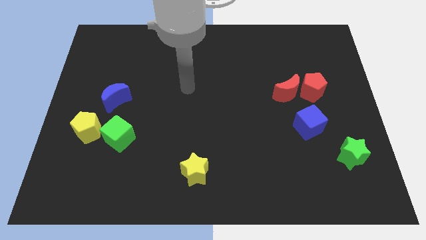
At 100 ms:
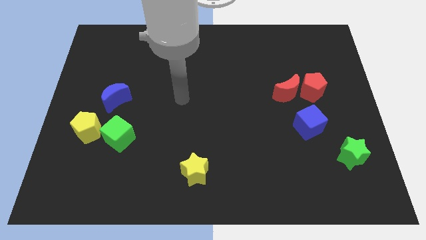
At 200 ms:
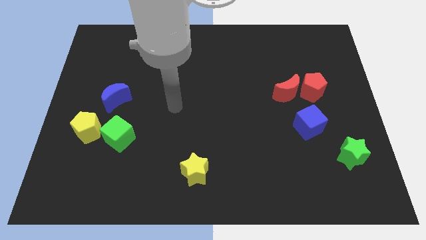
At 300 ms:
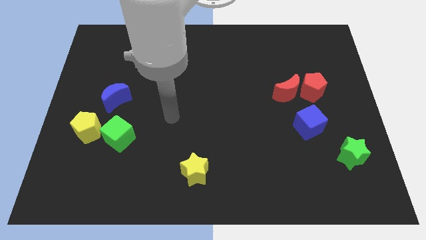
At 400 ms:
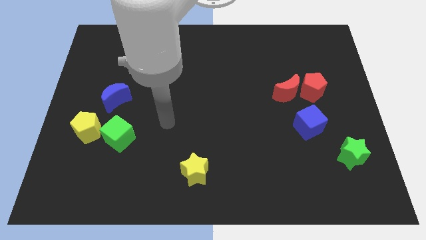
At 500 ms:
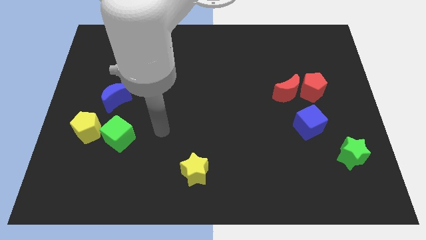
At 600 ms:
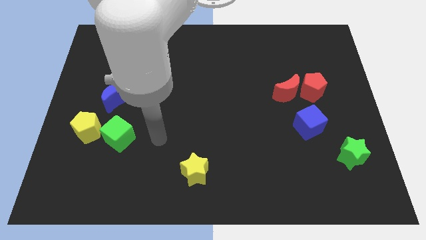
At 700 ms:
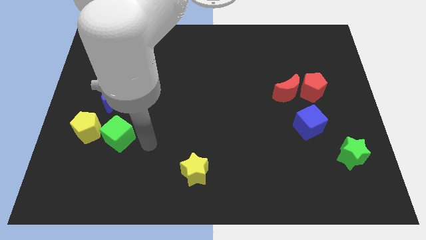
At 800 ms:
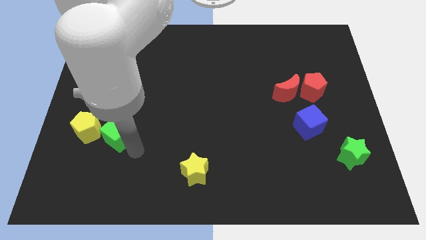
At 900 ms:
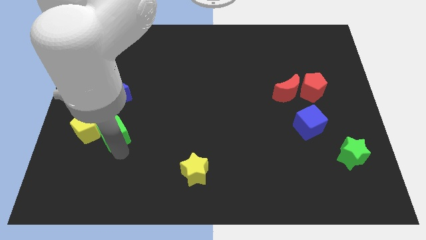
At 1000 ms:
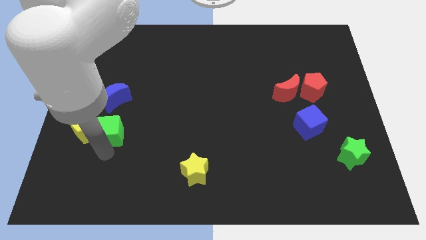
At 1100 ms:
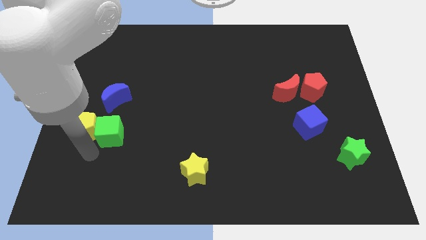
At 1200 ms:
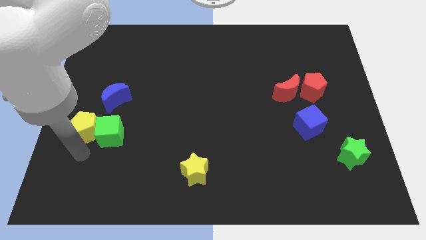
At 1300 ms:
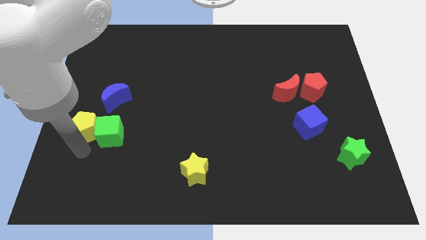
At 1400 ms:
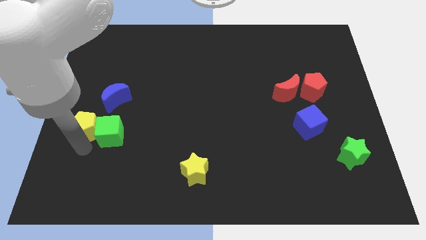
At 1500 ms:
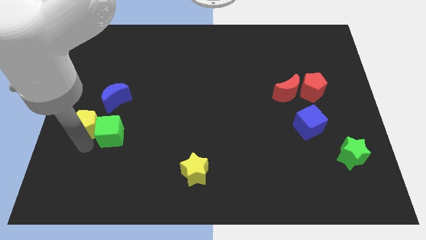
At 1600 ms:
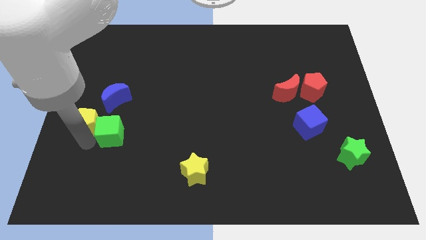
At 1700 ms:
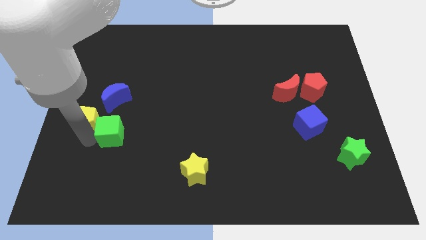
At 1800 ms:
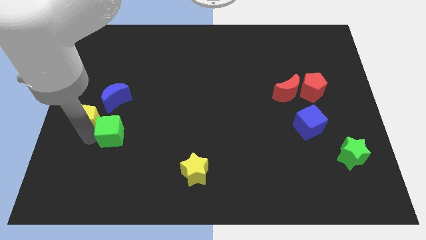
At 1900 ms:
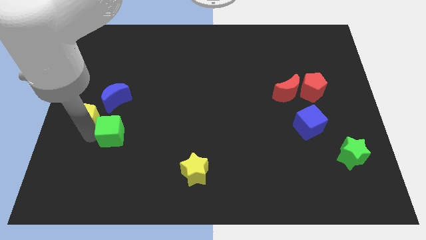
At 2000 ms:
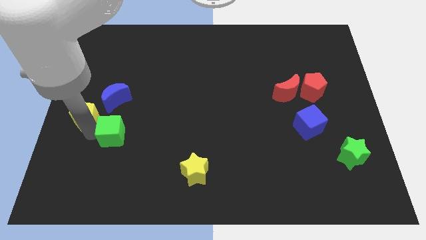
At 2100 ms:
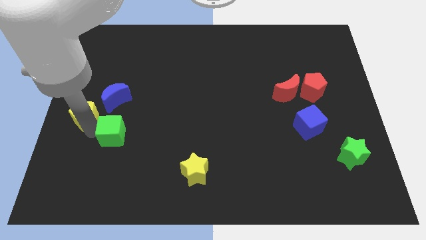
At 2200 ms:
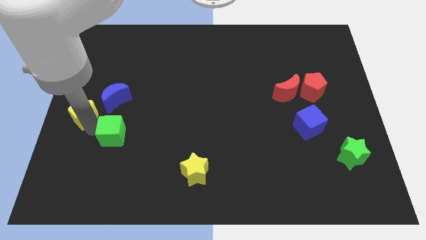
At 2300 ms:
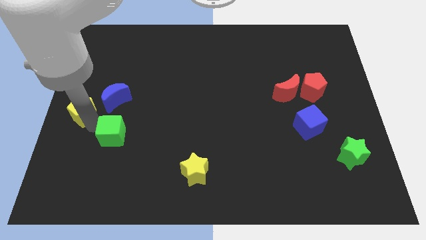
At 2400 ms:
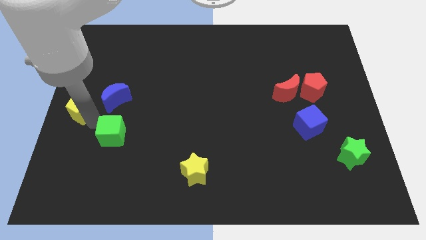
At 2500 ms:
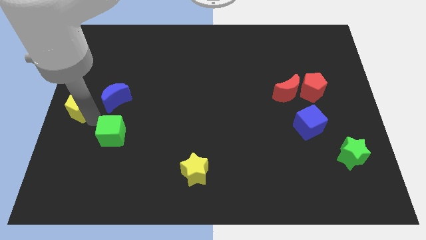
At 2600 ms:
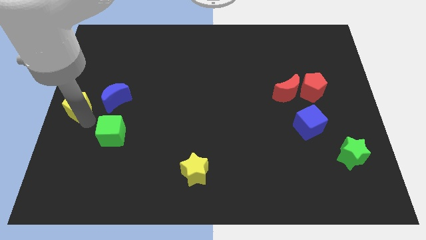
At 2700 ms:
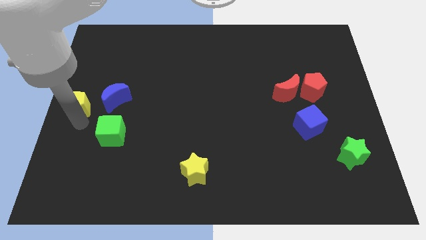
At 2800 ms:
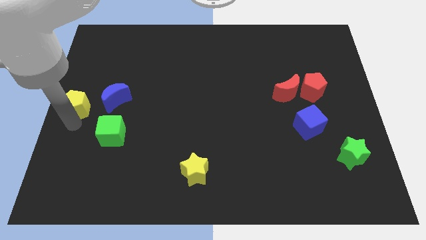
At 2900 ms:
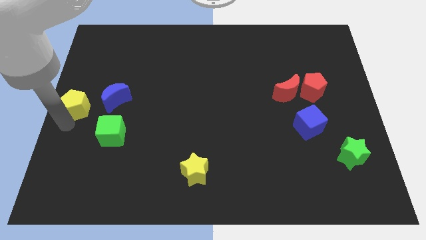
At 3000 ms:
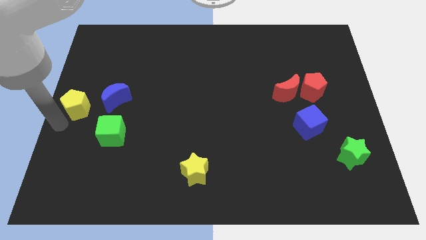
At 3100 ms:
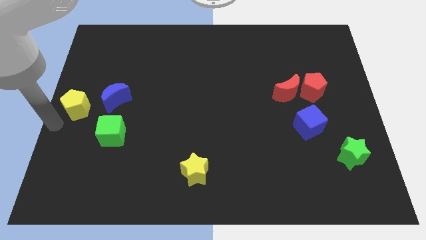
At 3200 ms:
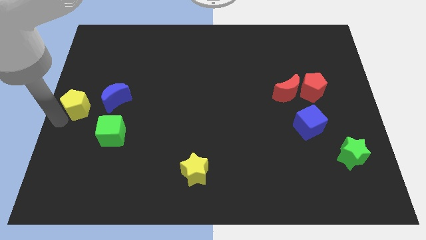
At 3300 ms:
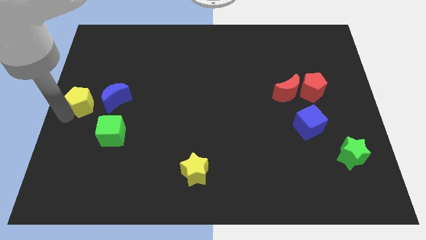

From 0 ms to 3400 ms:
push the yellow pentagon slightly up

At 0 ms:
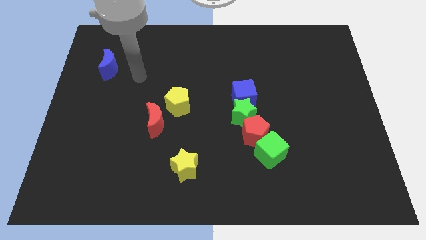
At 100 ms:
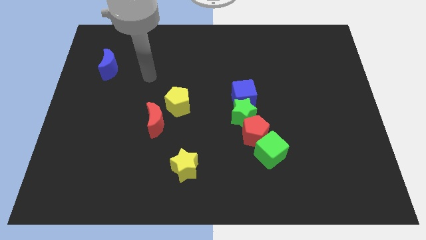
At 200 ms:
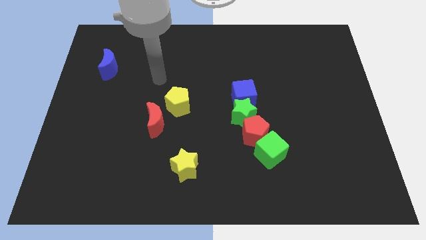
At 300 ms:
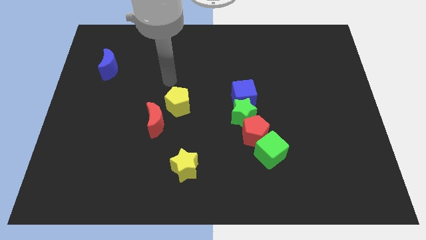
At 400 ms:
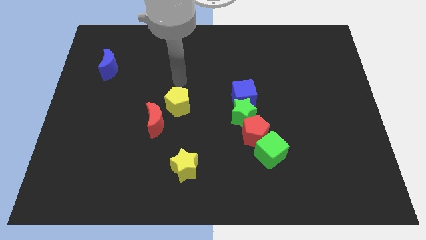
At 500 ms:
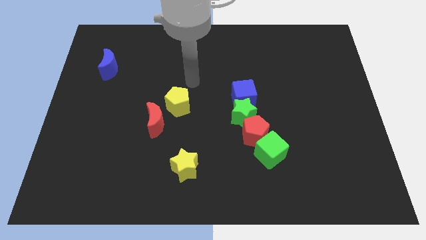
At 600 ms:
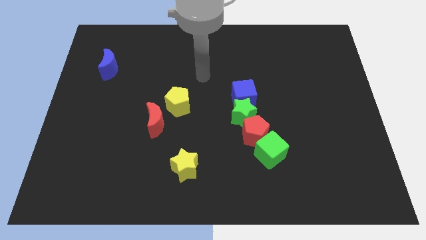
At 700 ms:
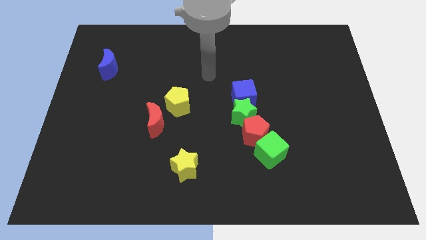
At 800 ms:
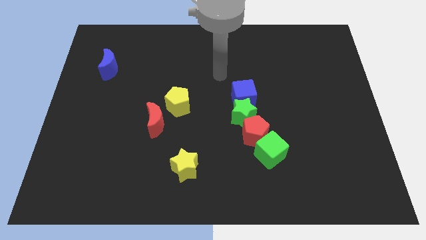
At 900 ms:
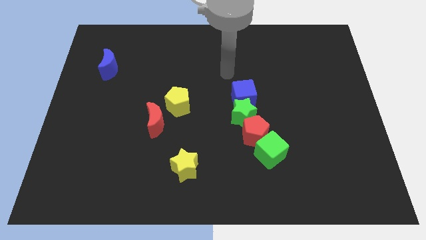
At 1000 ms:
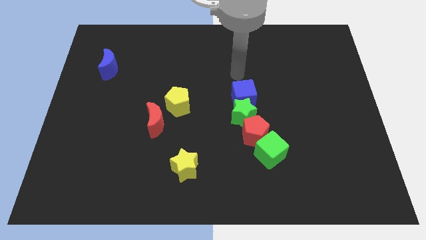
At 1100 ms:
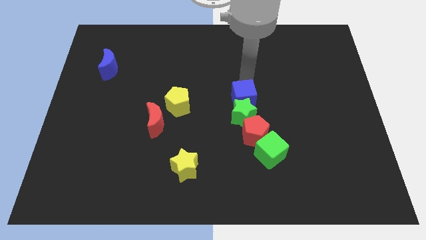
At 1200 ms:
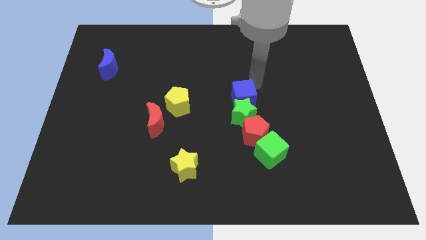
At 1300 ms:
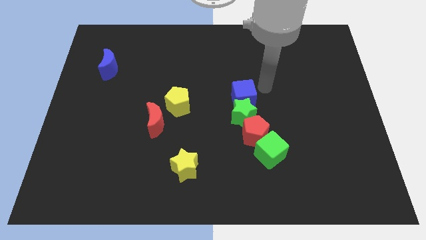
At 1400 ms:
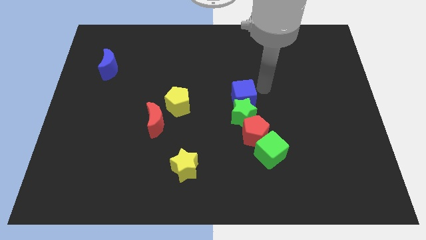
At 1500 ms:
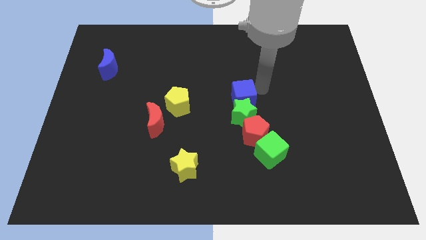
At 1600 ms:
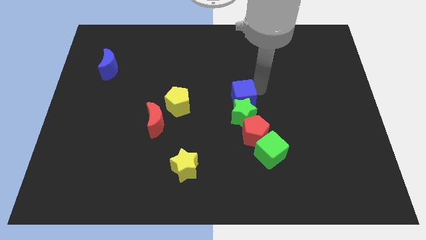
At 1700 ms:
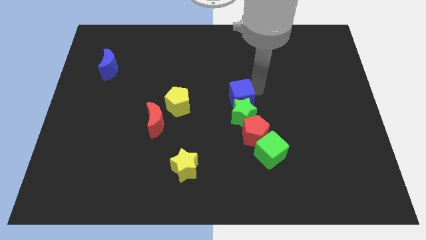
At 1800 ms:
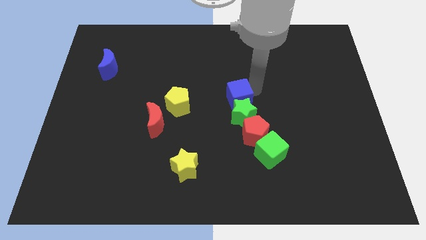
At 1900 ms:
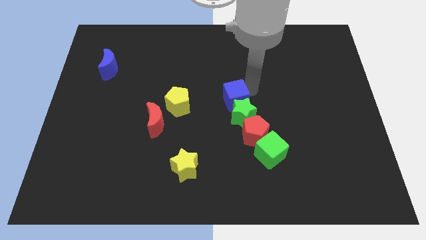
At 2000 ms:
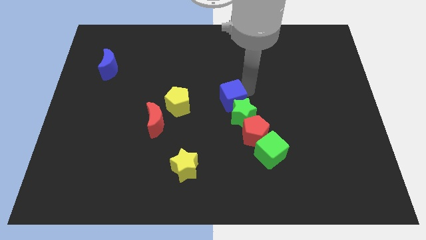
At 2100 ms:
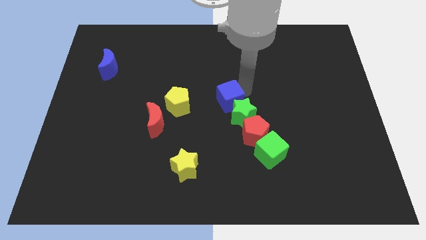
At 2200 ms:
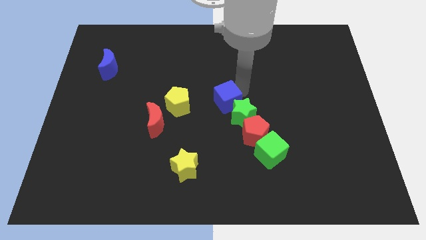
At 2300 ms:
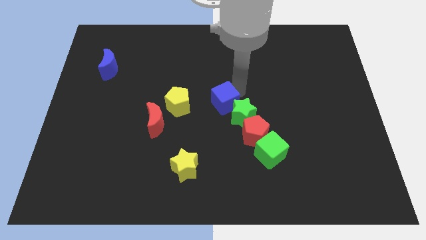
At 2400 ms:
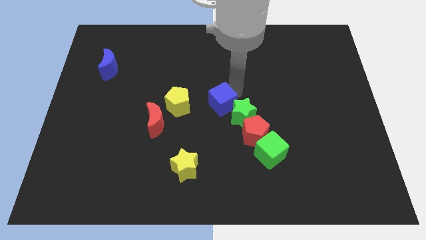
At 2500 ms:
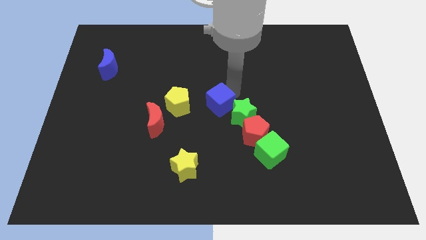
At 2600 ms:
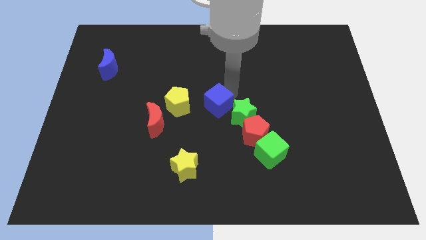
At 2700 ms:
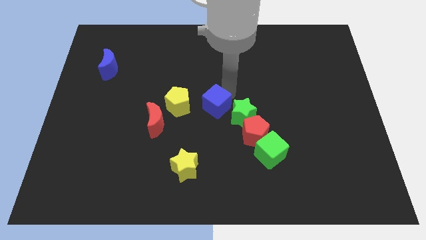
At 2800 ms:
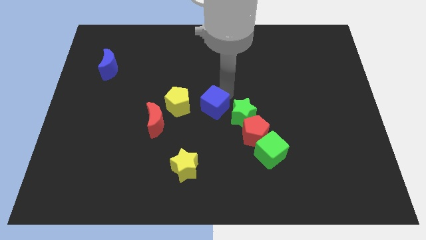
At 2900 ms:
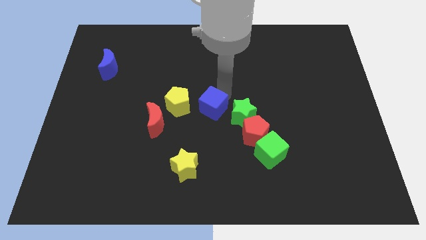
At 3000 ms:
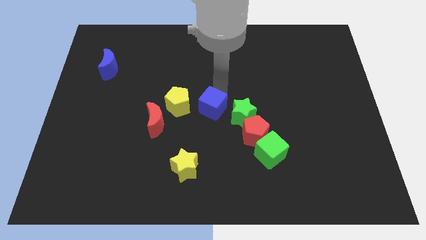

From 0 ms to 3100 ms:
slide the blue cube a little bit downwards and then to the left

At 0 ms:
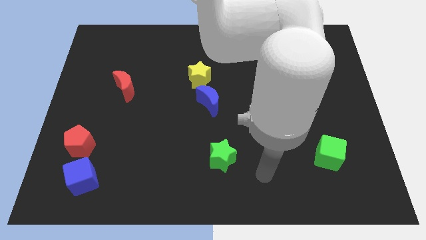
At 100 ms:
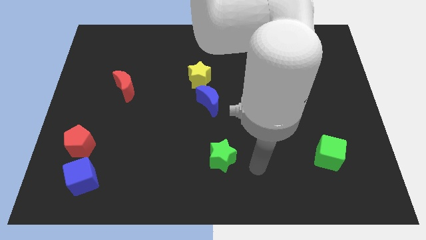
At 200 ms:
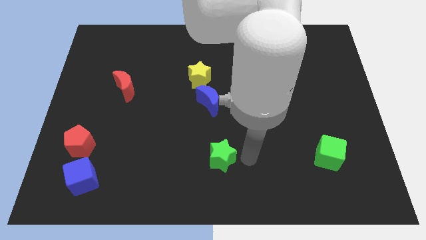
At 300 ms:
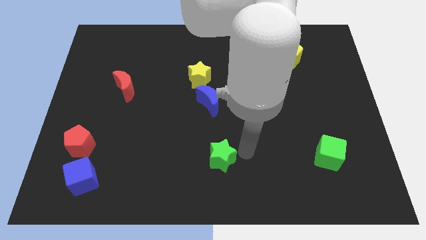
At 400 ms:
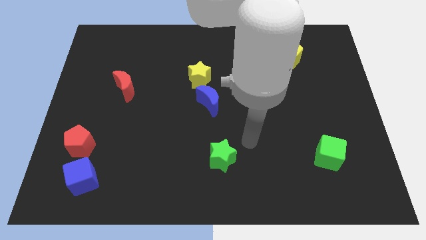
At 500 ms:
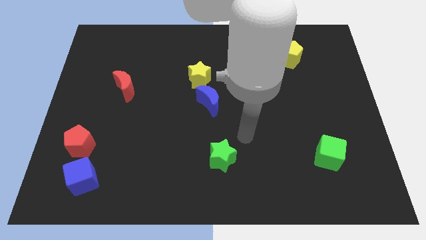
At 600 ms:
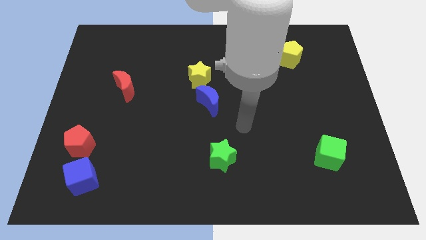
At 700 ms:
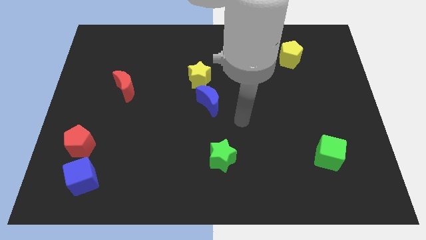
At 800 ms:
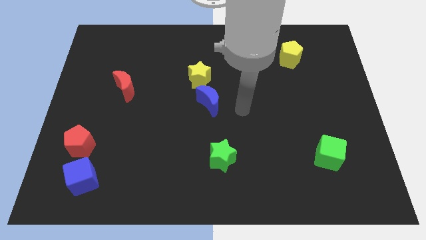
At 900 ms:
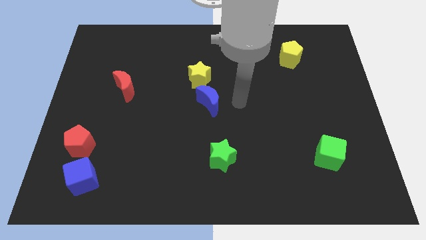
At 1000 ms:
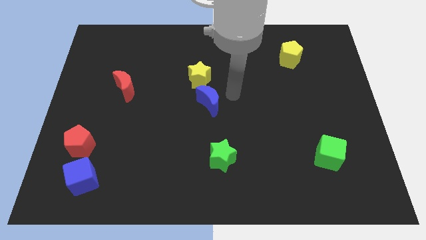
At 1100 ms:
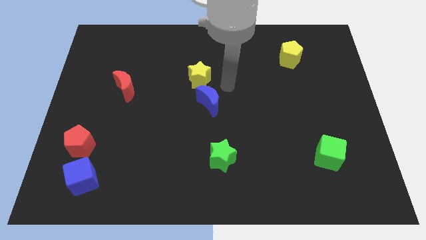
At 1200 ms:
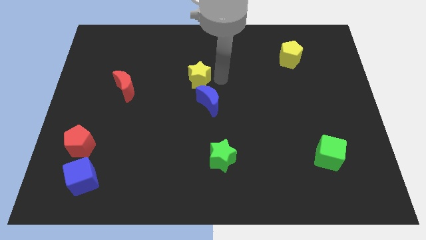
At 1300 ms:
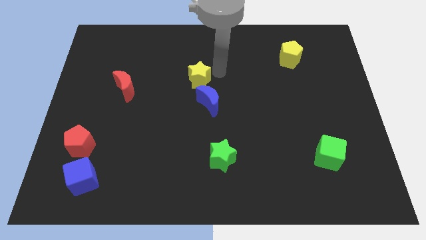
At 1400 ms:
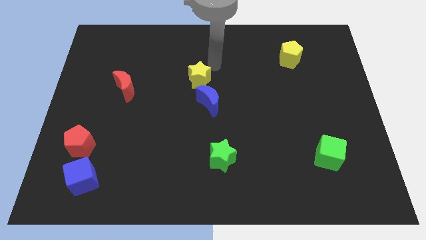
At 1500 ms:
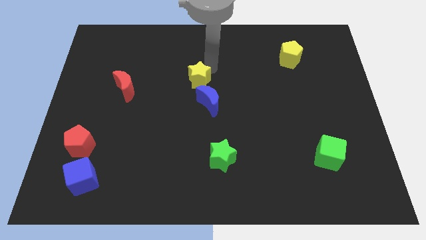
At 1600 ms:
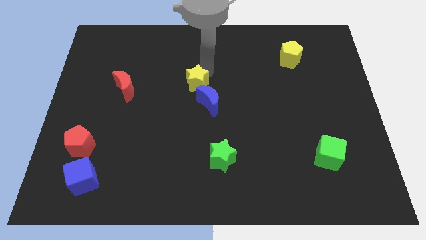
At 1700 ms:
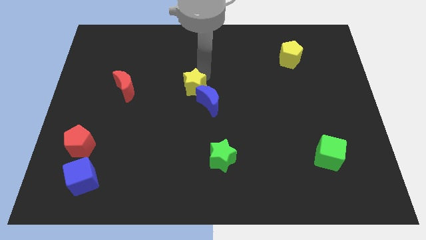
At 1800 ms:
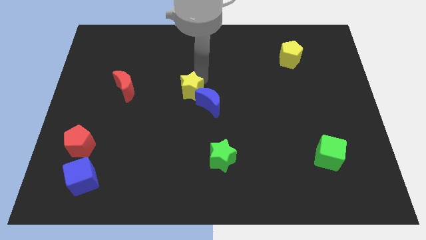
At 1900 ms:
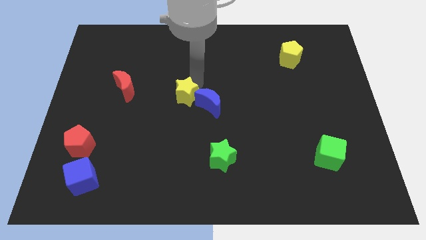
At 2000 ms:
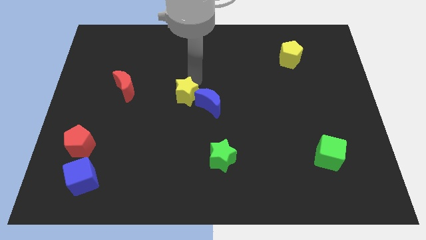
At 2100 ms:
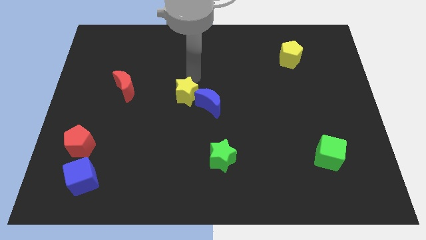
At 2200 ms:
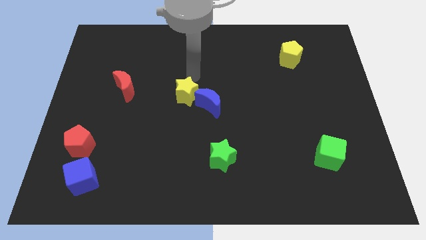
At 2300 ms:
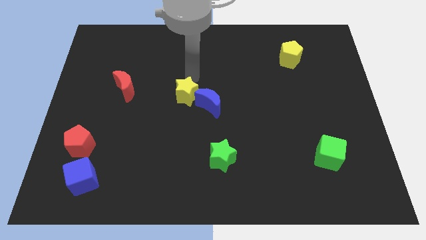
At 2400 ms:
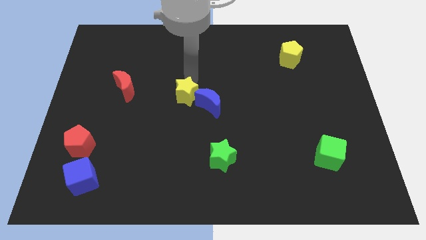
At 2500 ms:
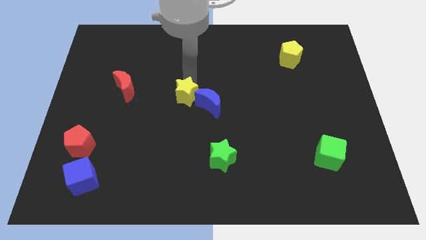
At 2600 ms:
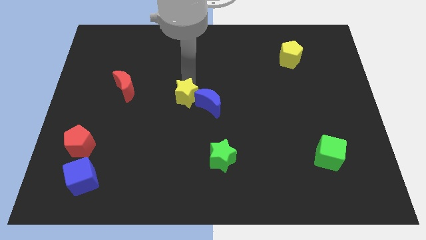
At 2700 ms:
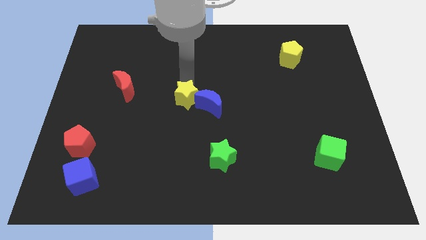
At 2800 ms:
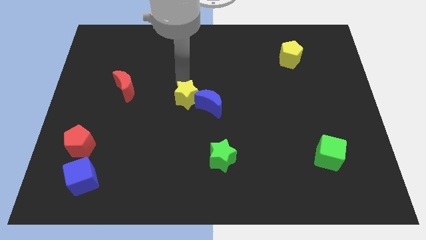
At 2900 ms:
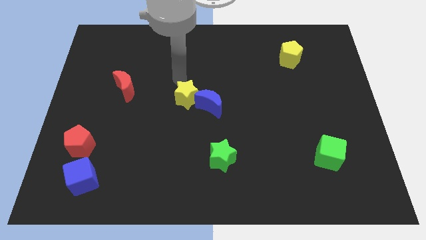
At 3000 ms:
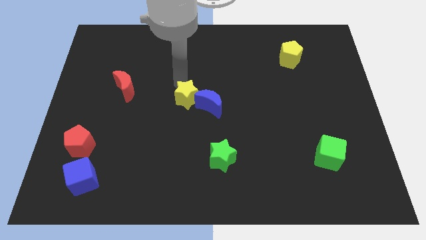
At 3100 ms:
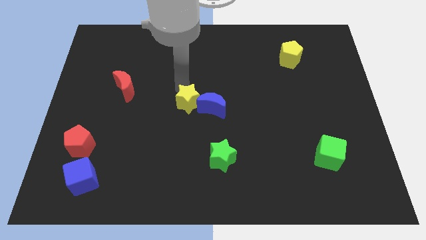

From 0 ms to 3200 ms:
slightly move the yellow star down
